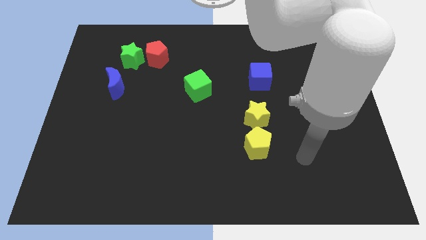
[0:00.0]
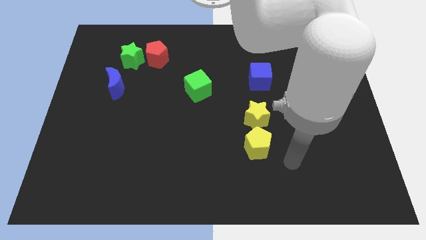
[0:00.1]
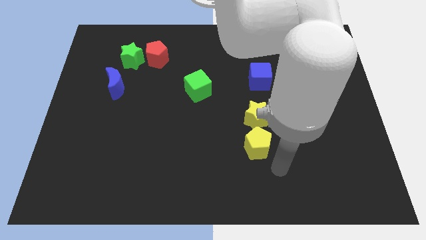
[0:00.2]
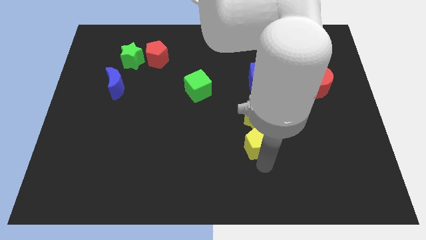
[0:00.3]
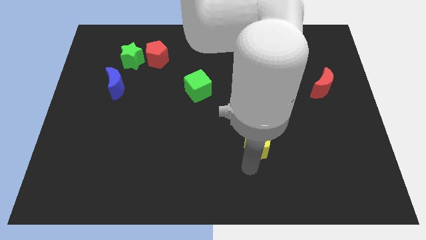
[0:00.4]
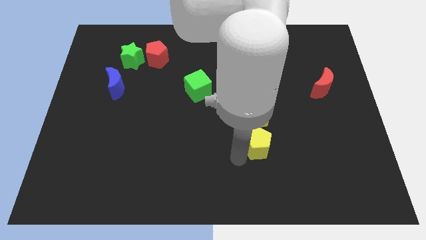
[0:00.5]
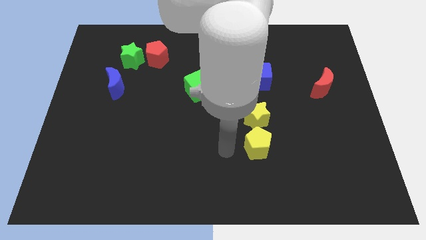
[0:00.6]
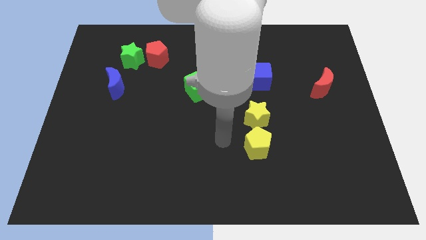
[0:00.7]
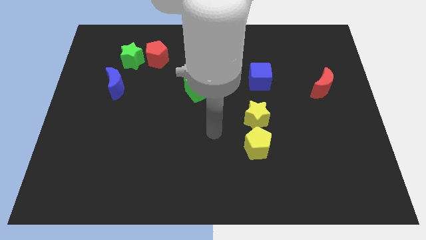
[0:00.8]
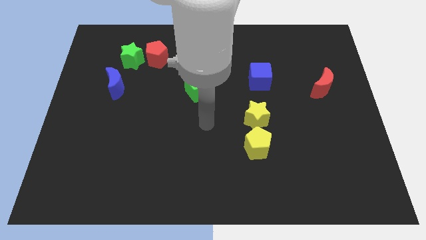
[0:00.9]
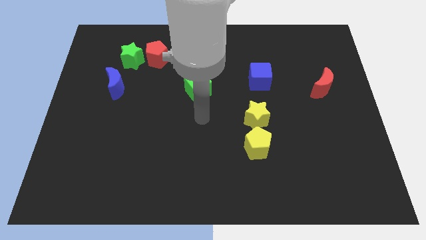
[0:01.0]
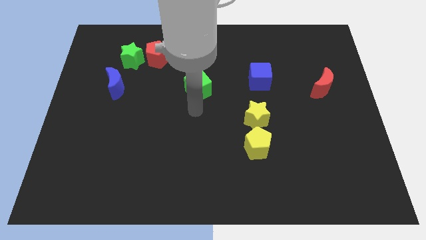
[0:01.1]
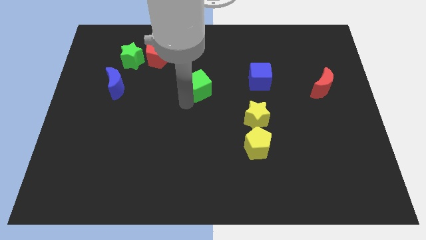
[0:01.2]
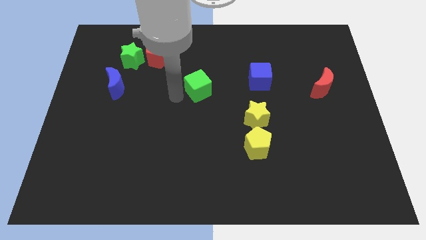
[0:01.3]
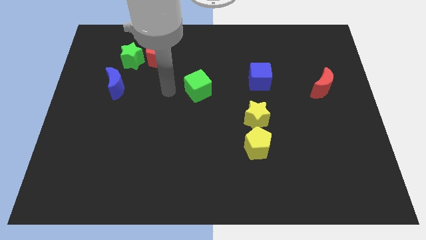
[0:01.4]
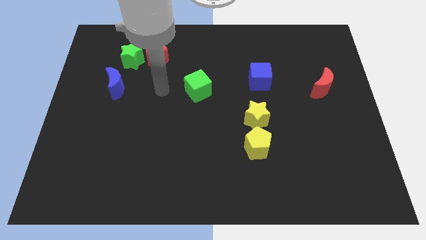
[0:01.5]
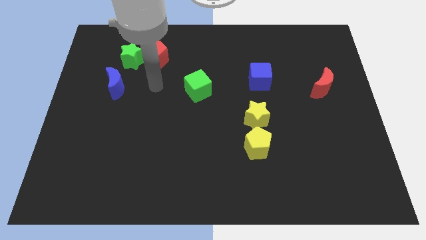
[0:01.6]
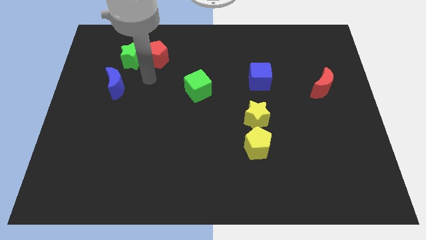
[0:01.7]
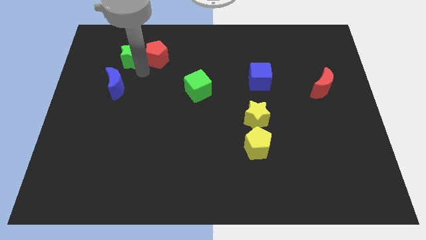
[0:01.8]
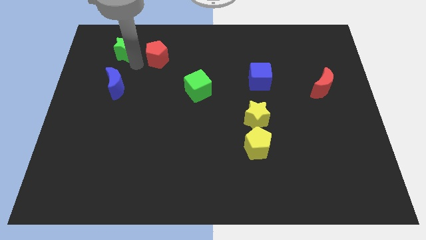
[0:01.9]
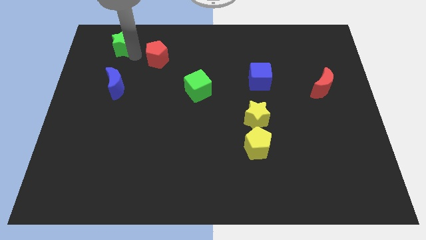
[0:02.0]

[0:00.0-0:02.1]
move the red pentagon away from the green star

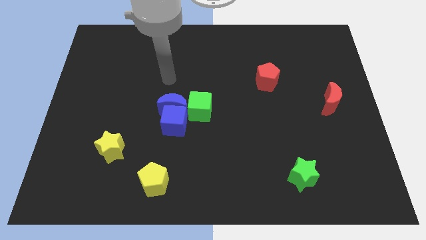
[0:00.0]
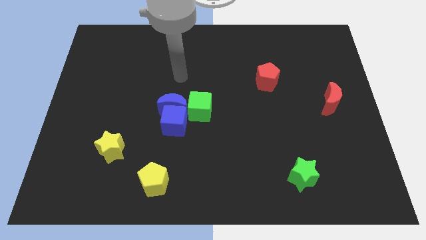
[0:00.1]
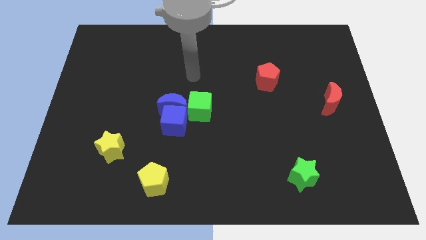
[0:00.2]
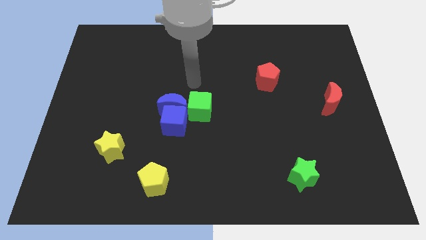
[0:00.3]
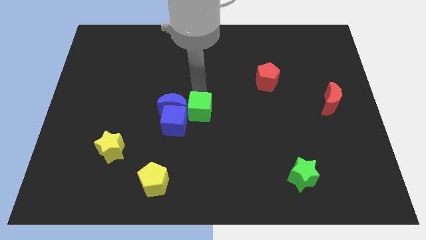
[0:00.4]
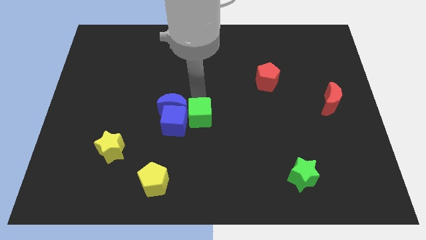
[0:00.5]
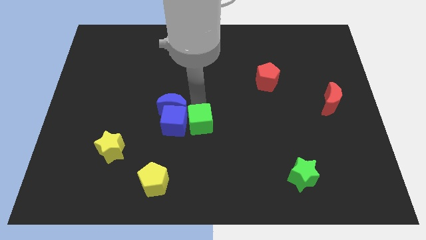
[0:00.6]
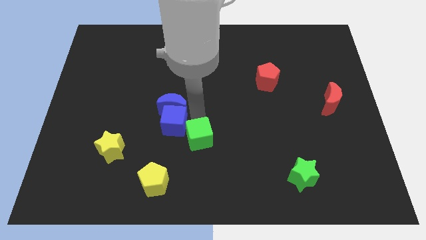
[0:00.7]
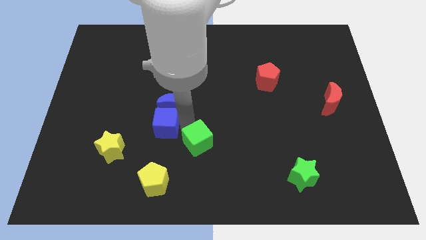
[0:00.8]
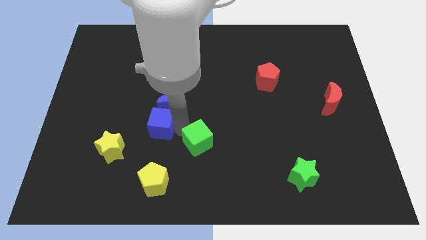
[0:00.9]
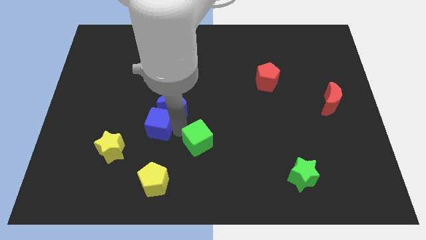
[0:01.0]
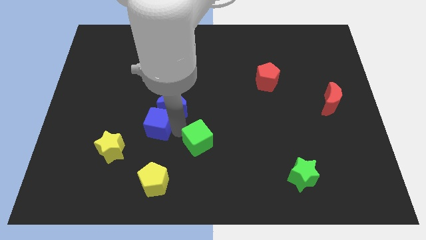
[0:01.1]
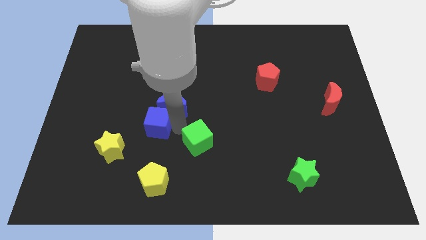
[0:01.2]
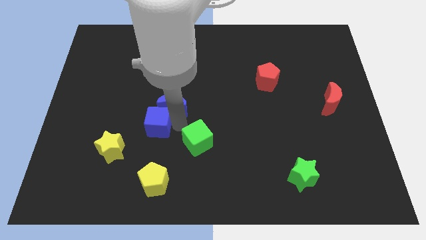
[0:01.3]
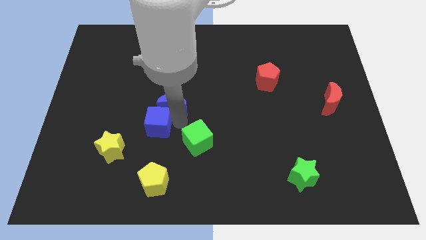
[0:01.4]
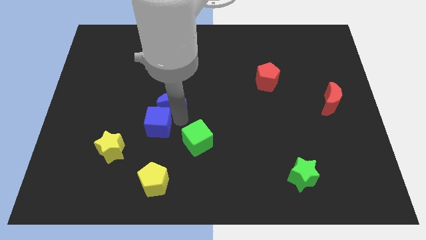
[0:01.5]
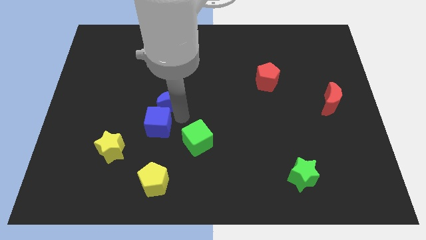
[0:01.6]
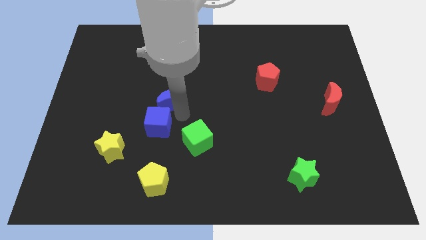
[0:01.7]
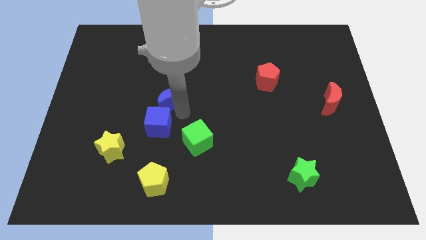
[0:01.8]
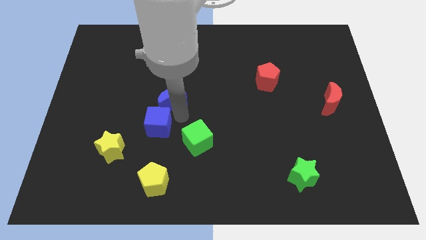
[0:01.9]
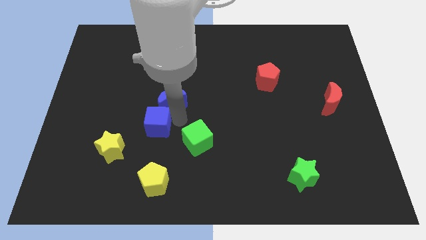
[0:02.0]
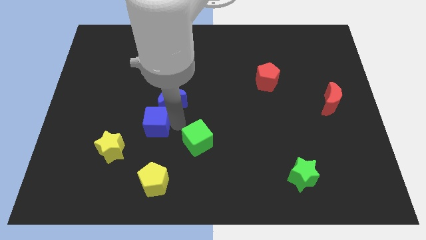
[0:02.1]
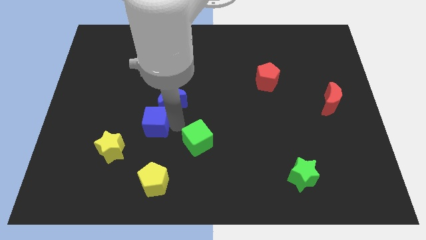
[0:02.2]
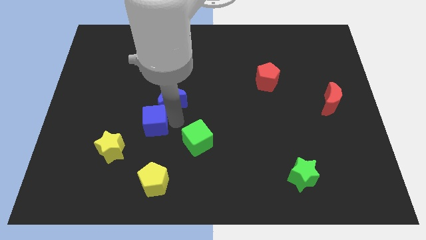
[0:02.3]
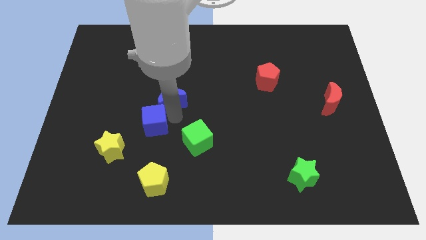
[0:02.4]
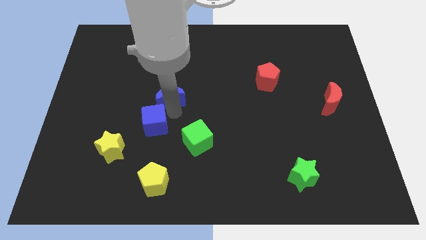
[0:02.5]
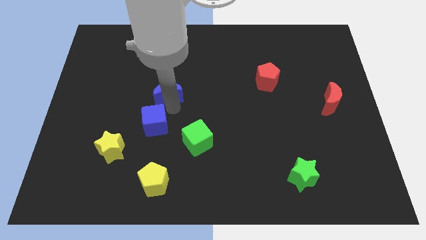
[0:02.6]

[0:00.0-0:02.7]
separate the blue moon from the blue cube and green cube

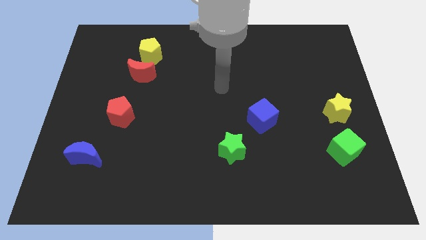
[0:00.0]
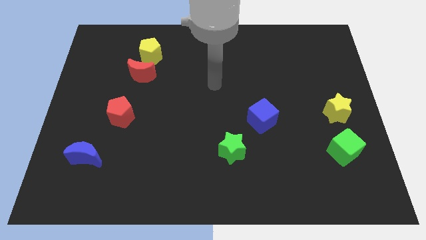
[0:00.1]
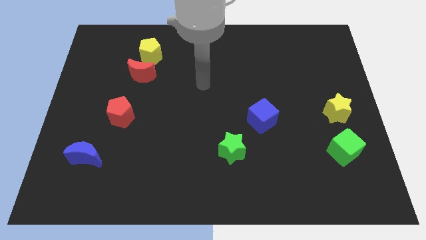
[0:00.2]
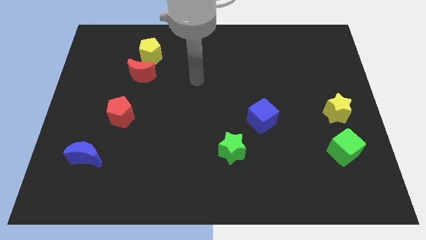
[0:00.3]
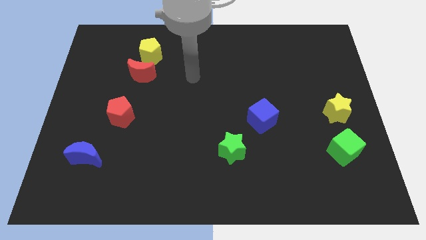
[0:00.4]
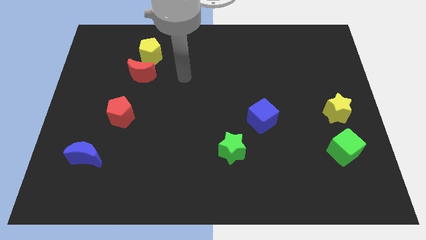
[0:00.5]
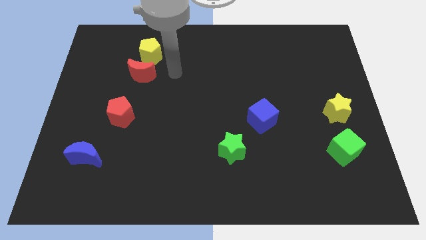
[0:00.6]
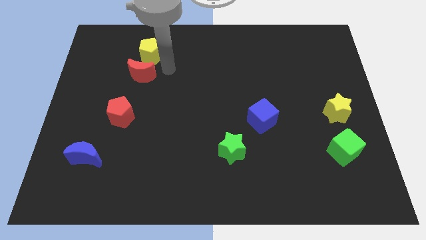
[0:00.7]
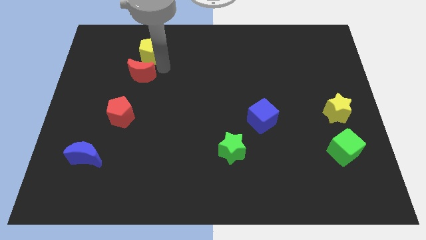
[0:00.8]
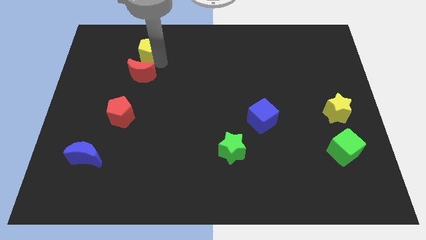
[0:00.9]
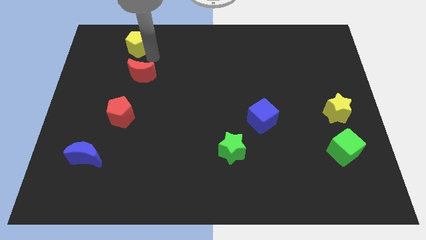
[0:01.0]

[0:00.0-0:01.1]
separate the red moon from the yellow pentagon

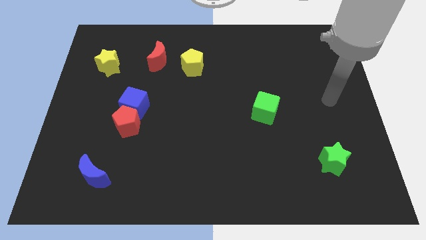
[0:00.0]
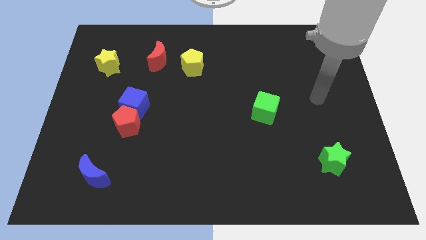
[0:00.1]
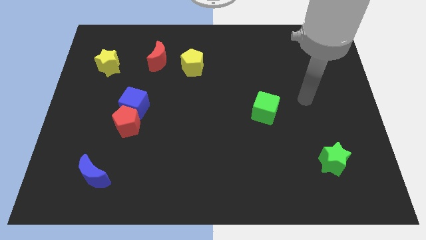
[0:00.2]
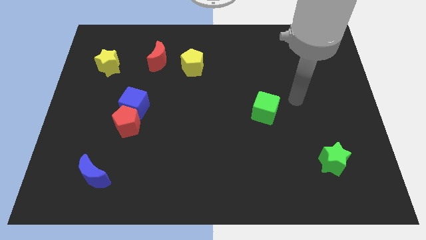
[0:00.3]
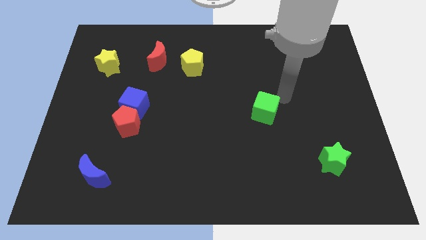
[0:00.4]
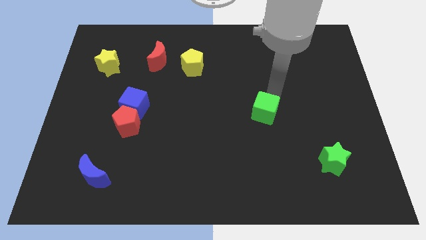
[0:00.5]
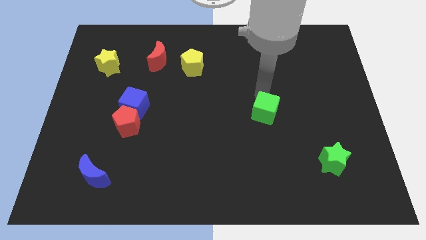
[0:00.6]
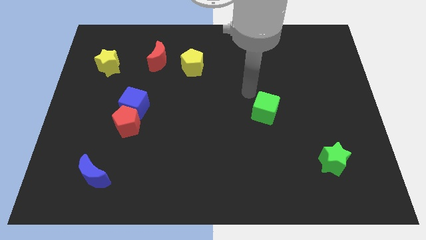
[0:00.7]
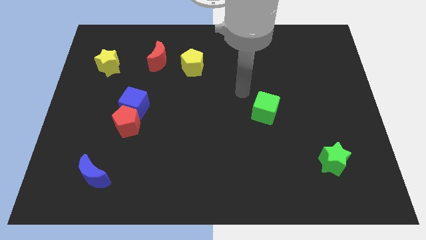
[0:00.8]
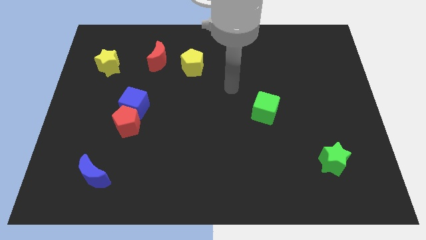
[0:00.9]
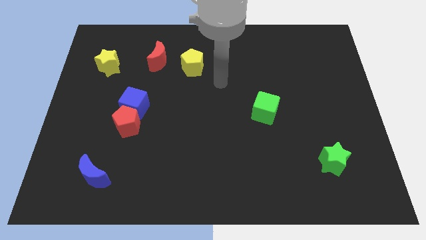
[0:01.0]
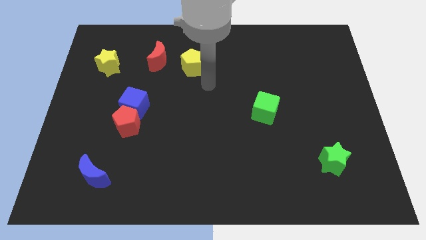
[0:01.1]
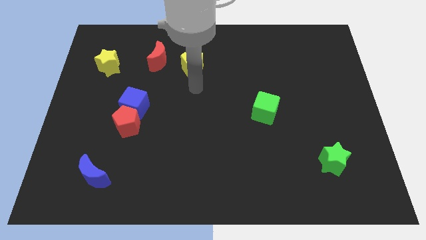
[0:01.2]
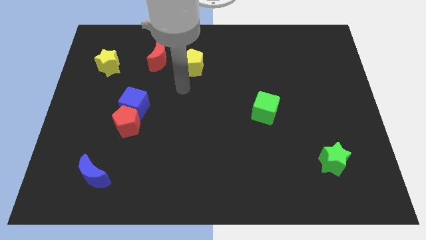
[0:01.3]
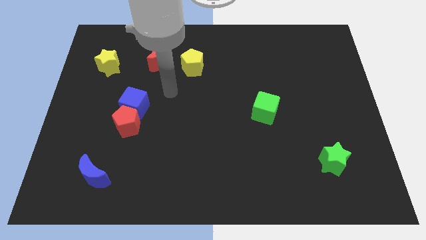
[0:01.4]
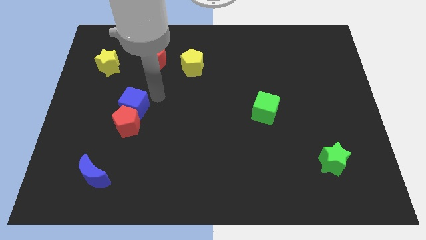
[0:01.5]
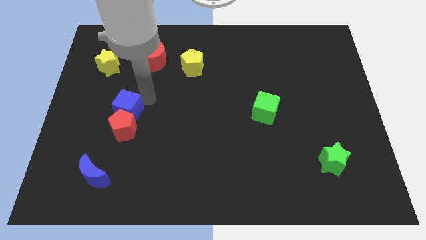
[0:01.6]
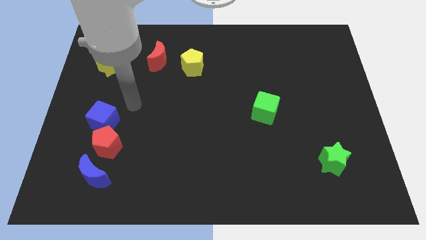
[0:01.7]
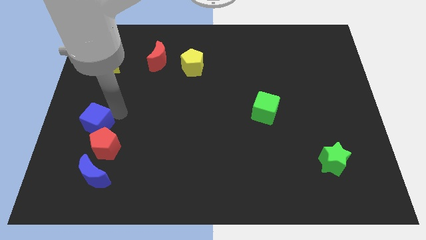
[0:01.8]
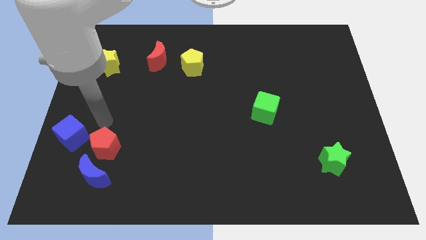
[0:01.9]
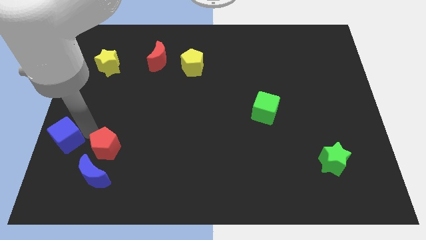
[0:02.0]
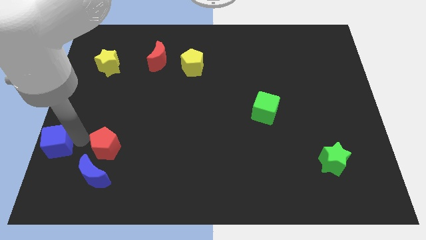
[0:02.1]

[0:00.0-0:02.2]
separate the red pentagon from the blue cube

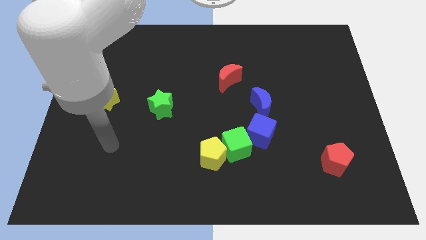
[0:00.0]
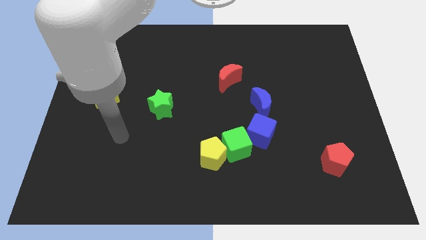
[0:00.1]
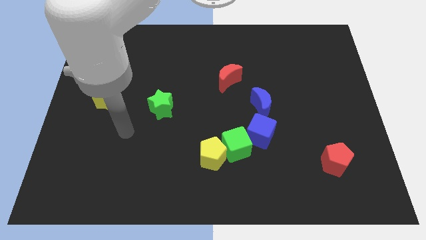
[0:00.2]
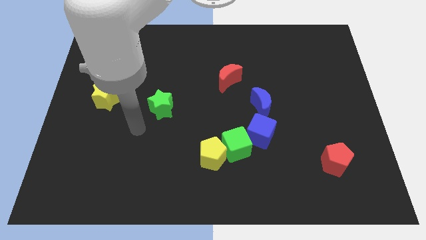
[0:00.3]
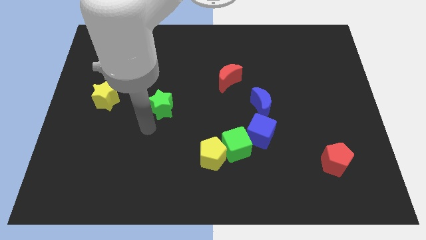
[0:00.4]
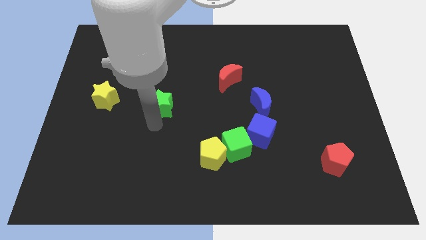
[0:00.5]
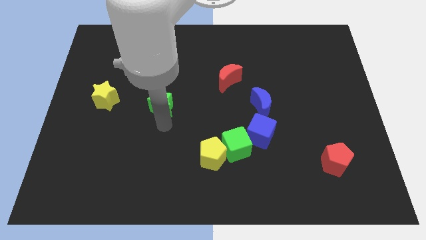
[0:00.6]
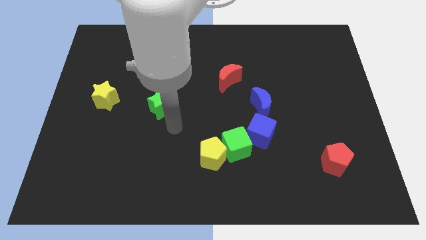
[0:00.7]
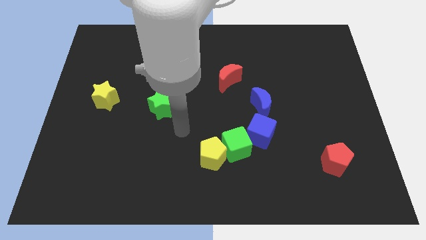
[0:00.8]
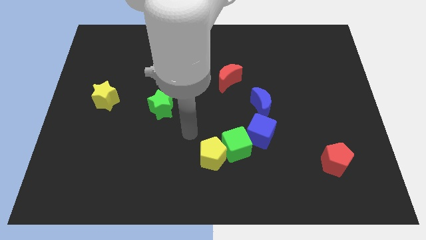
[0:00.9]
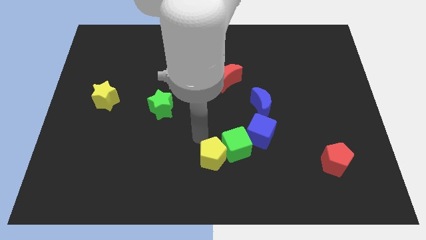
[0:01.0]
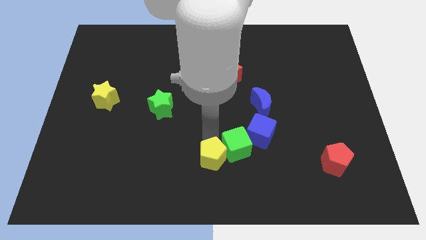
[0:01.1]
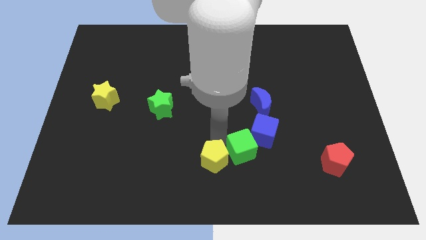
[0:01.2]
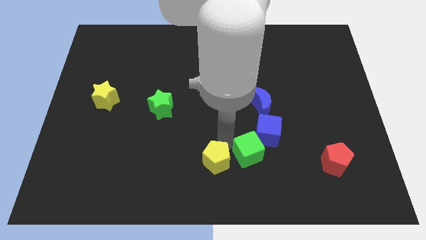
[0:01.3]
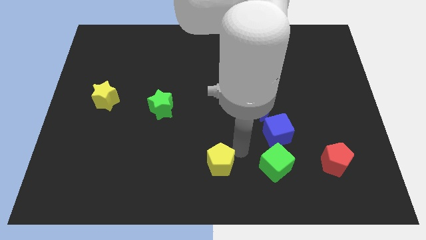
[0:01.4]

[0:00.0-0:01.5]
separate the yellow pentagon from the green cube
